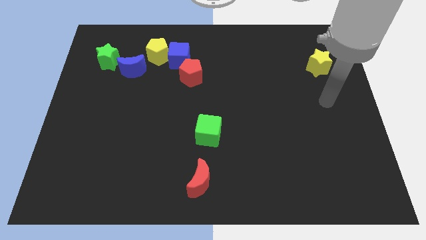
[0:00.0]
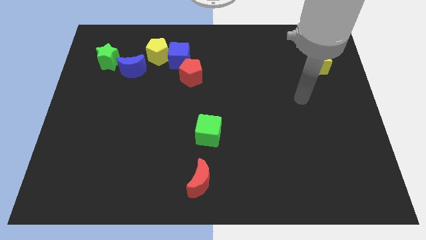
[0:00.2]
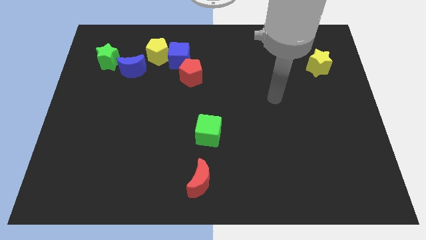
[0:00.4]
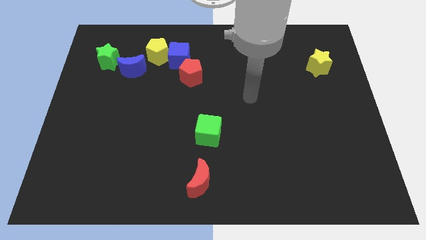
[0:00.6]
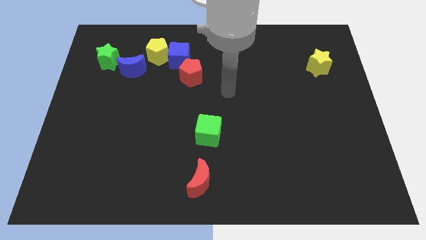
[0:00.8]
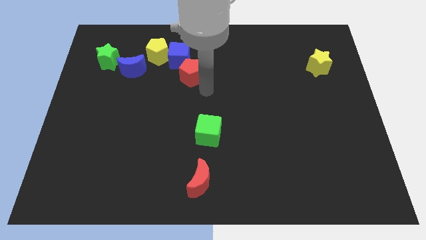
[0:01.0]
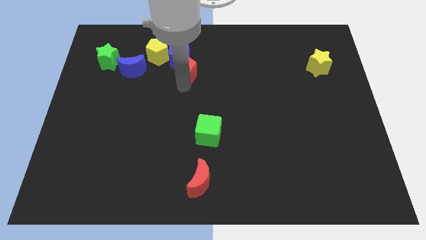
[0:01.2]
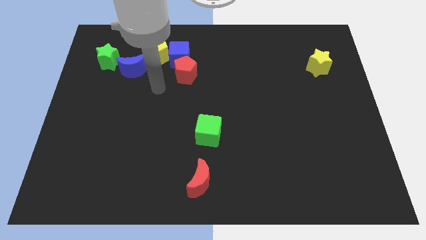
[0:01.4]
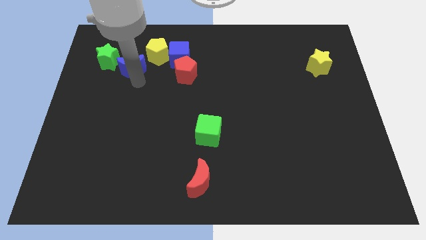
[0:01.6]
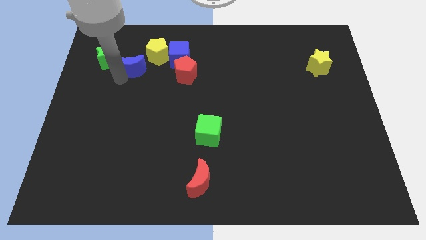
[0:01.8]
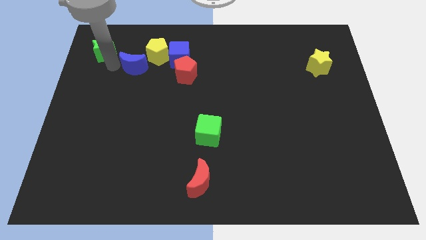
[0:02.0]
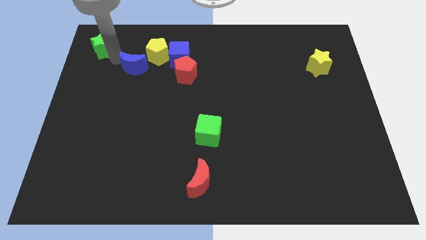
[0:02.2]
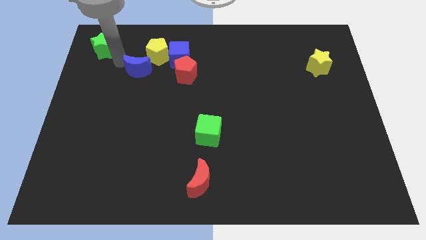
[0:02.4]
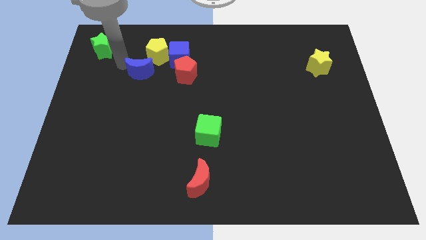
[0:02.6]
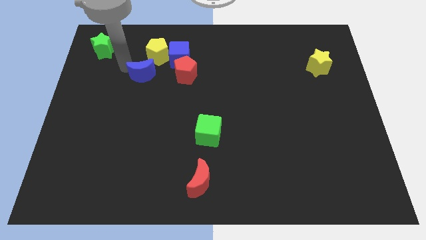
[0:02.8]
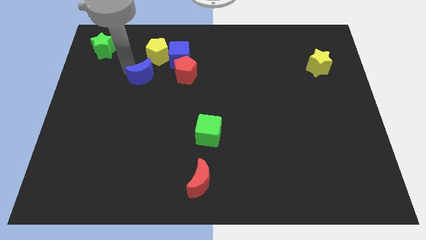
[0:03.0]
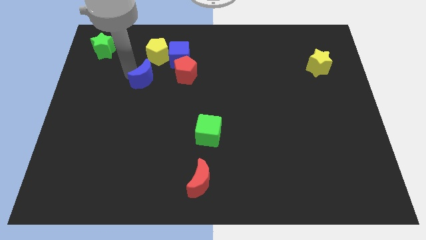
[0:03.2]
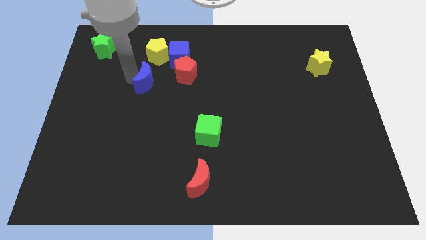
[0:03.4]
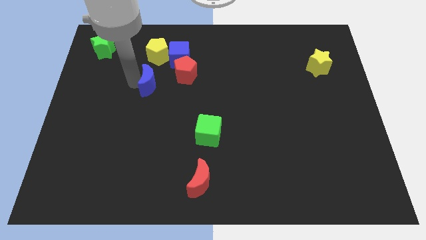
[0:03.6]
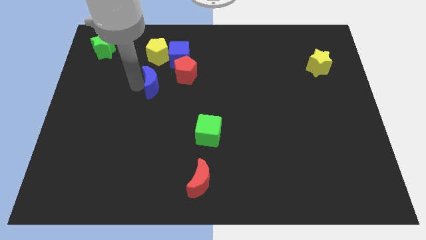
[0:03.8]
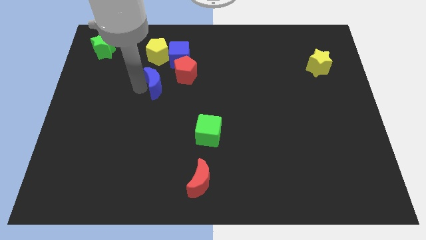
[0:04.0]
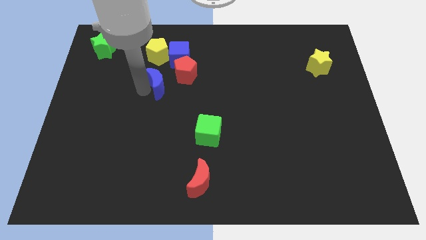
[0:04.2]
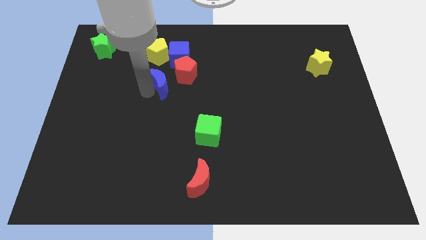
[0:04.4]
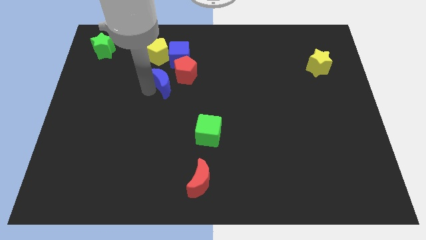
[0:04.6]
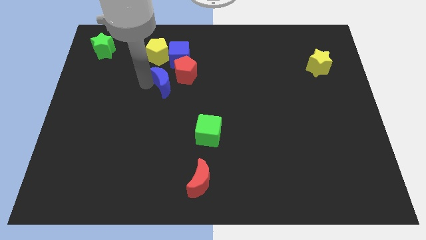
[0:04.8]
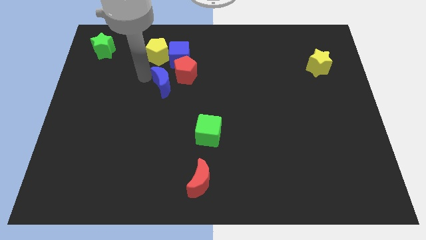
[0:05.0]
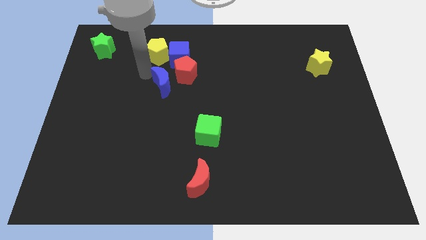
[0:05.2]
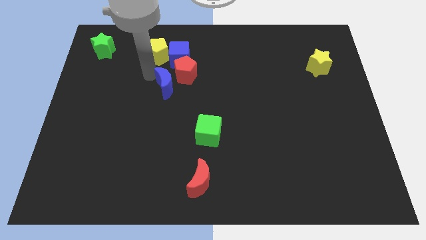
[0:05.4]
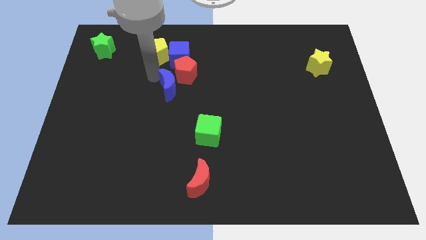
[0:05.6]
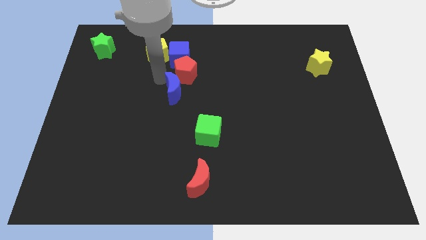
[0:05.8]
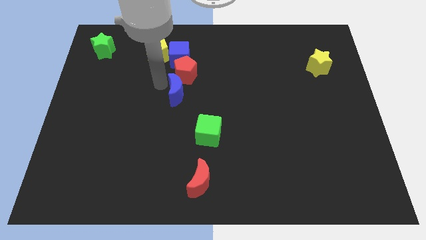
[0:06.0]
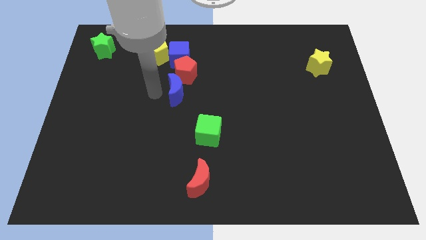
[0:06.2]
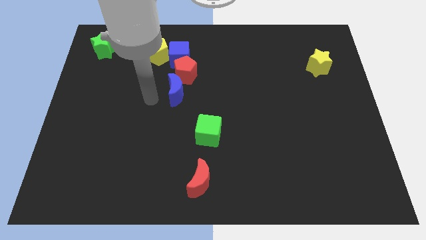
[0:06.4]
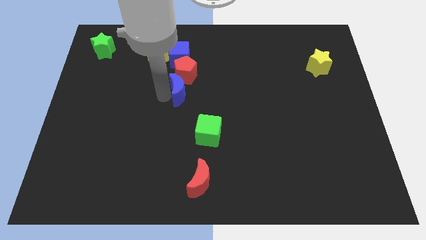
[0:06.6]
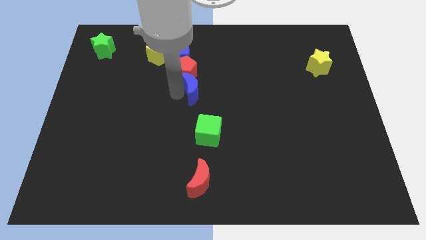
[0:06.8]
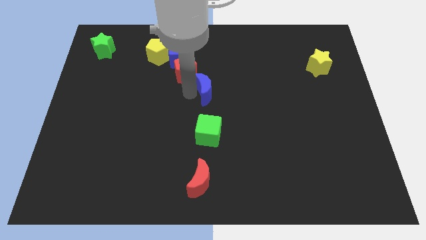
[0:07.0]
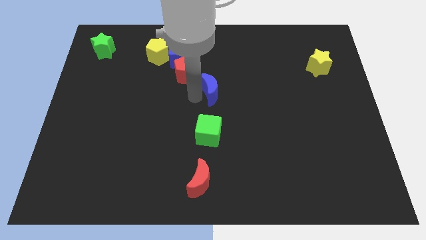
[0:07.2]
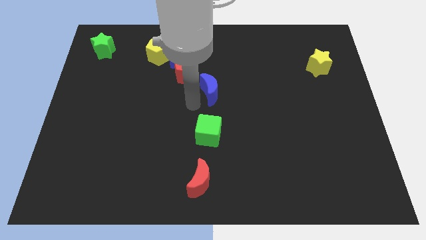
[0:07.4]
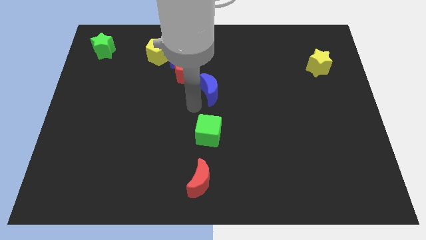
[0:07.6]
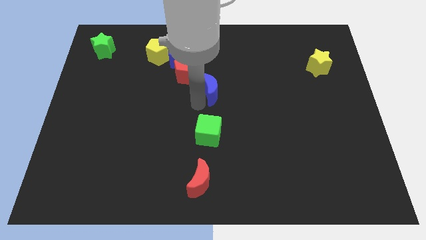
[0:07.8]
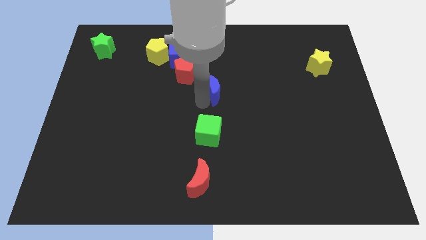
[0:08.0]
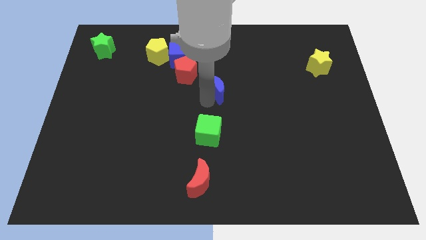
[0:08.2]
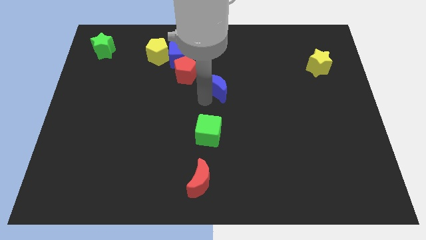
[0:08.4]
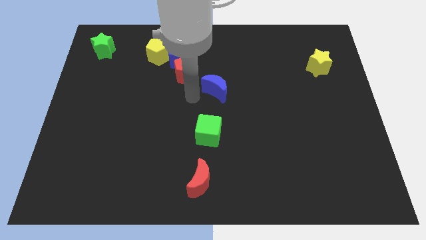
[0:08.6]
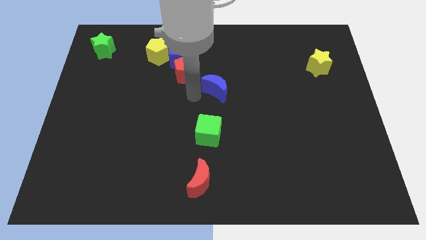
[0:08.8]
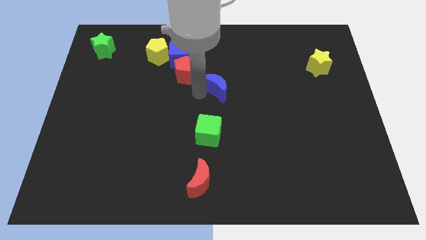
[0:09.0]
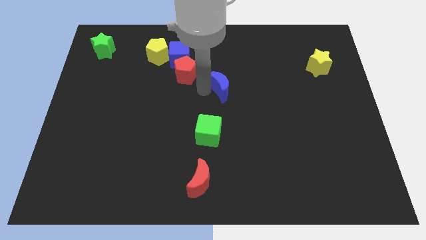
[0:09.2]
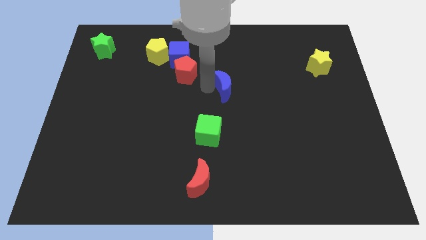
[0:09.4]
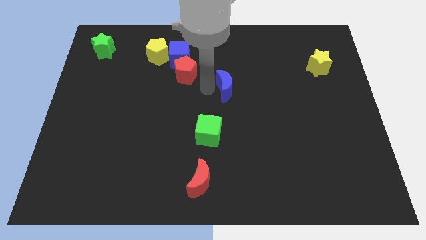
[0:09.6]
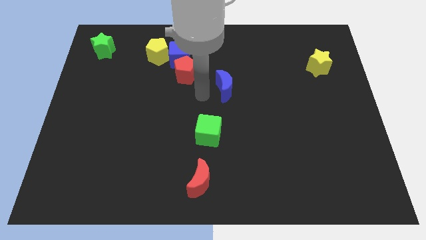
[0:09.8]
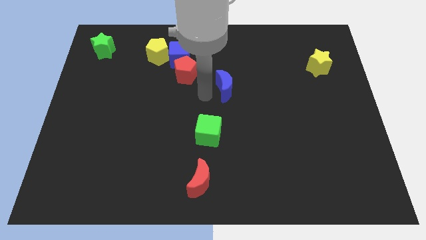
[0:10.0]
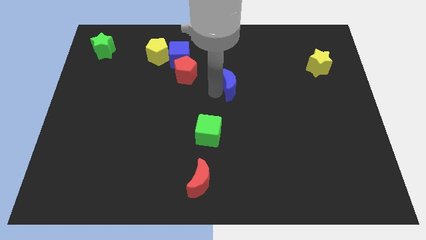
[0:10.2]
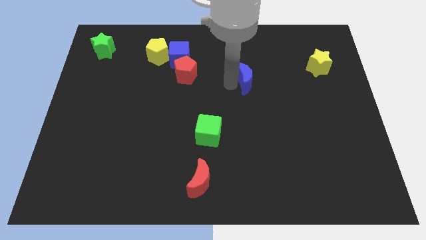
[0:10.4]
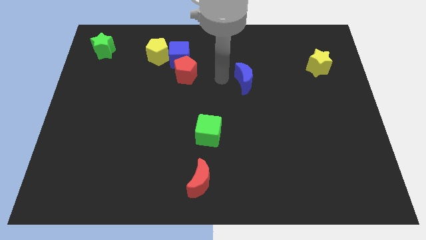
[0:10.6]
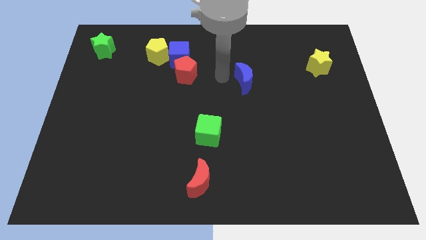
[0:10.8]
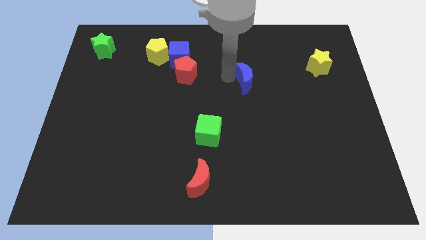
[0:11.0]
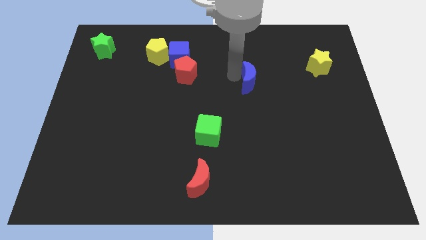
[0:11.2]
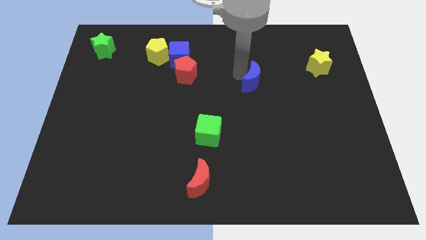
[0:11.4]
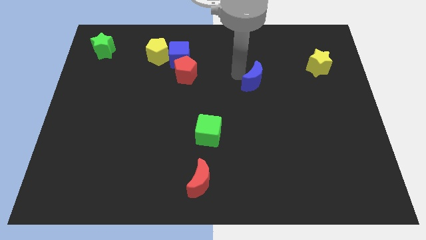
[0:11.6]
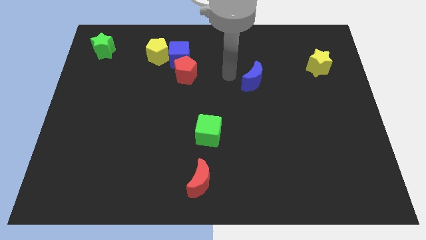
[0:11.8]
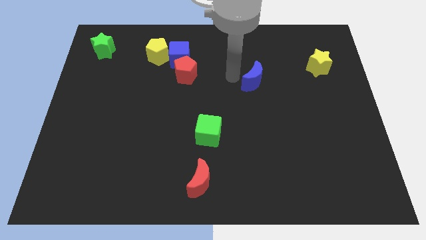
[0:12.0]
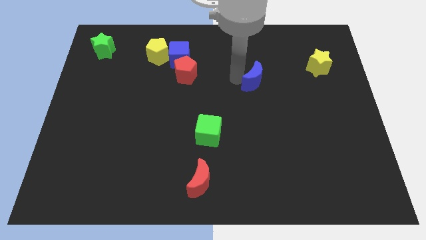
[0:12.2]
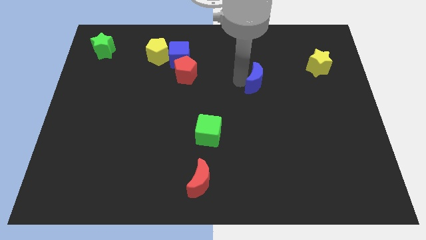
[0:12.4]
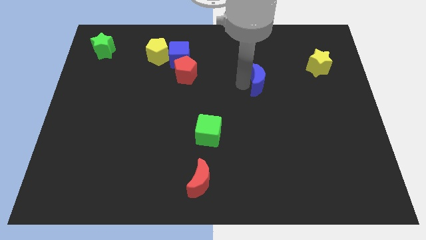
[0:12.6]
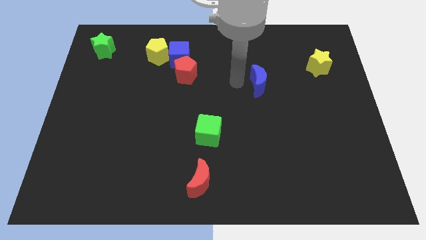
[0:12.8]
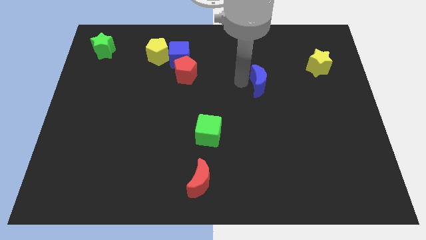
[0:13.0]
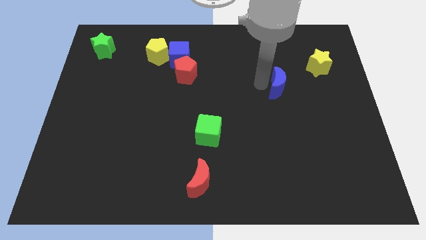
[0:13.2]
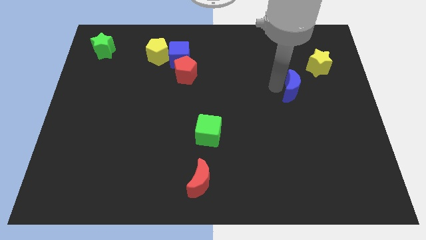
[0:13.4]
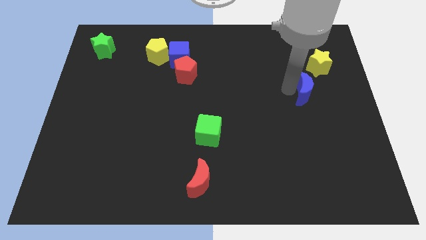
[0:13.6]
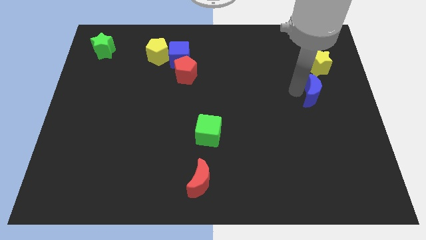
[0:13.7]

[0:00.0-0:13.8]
move the blue moon to the bottom of the yellow star

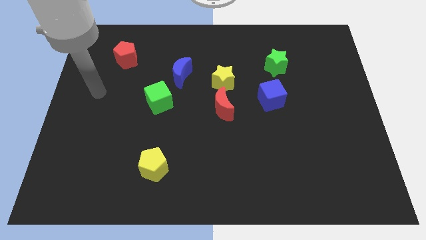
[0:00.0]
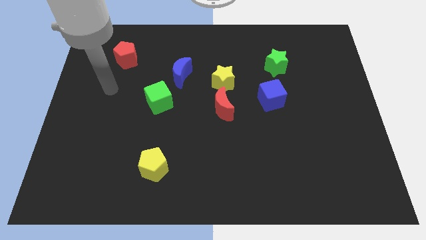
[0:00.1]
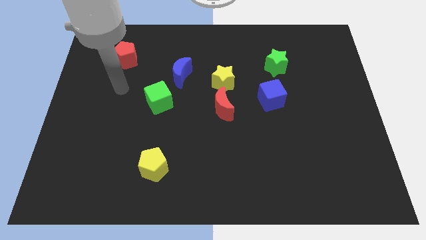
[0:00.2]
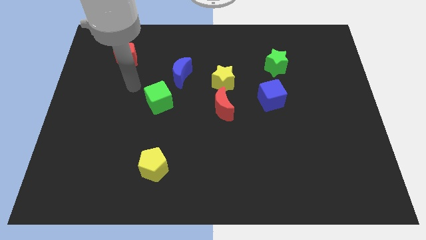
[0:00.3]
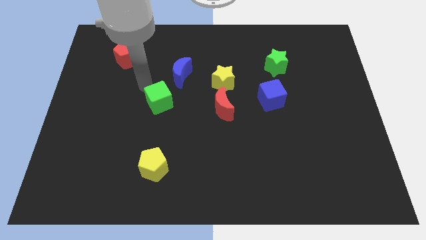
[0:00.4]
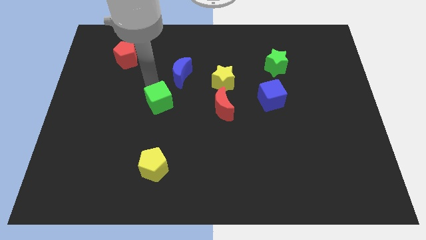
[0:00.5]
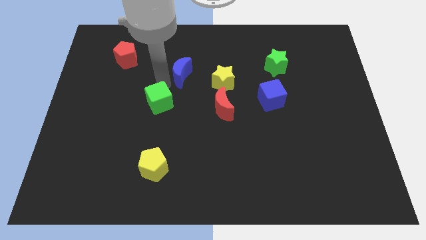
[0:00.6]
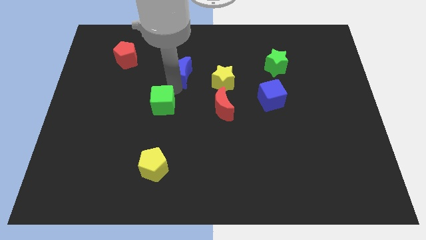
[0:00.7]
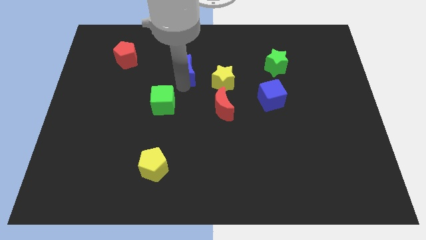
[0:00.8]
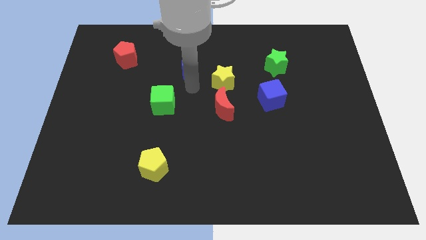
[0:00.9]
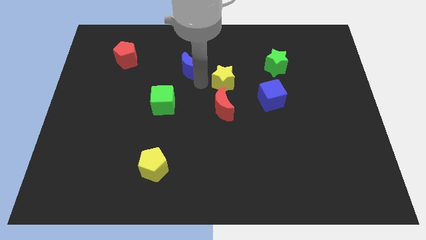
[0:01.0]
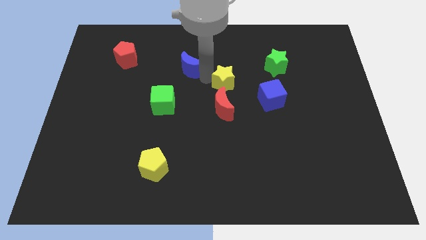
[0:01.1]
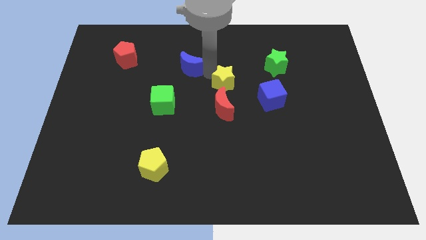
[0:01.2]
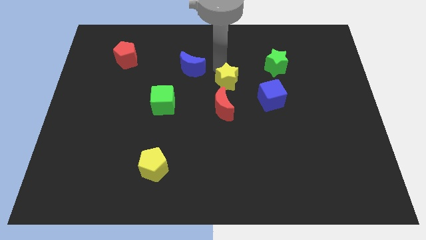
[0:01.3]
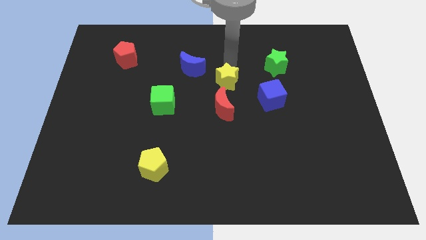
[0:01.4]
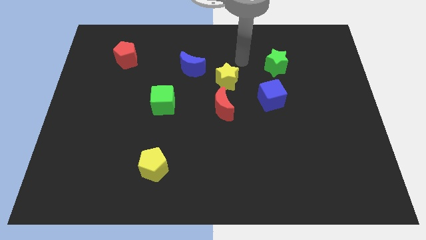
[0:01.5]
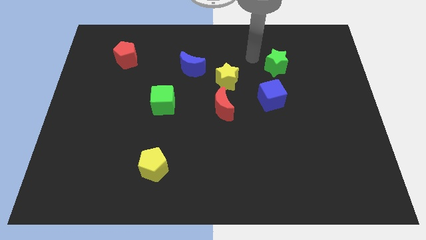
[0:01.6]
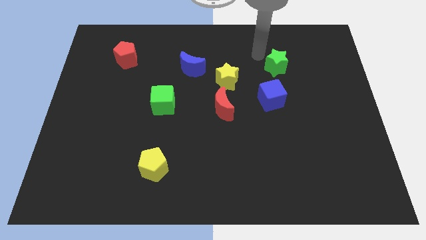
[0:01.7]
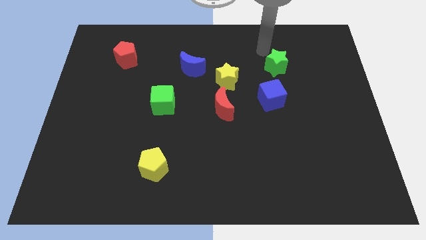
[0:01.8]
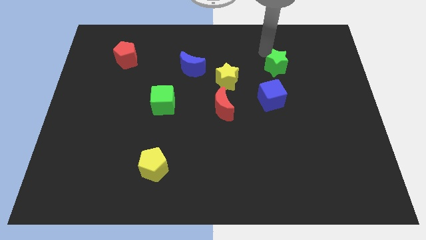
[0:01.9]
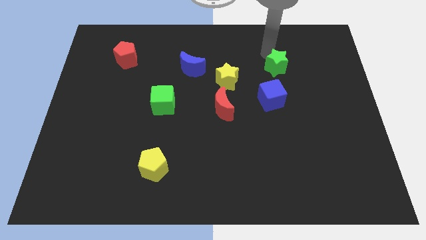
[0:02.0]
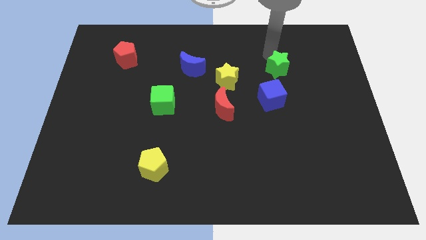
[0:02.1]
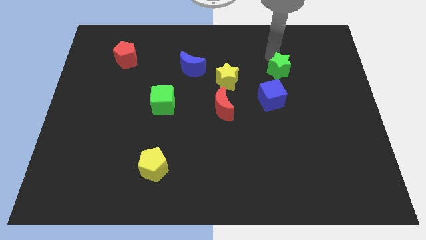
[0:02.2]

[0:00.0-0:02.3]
push the green star to the top right side of the blue cube
